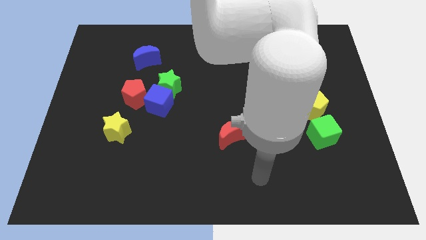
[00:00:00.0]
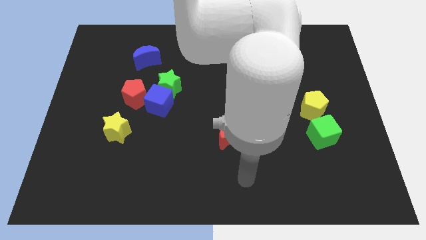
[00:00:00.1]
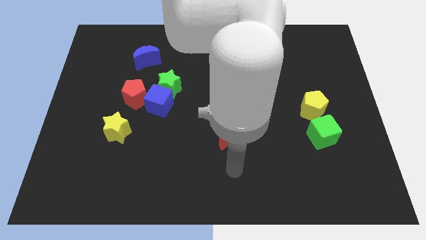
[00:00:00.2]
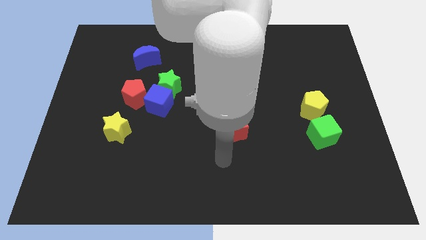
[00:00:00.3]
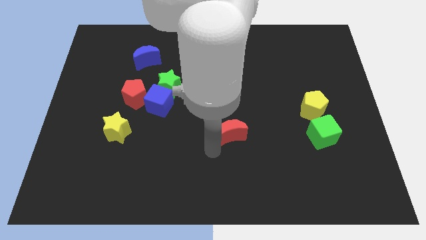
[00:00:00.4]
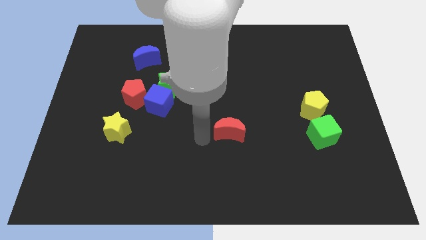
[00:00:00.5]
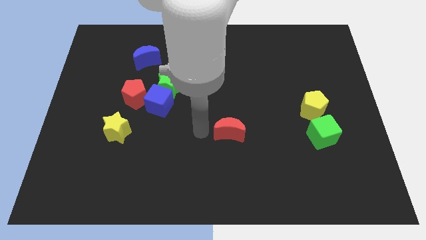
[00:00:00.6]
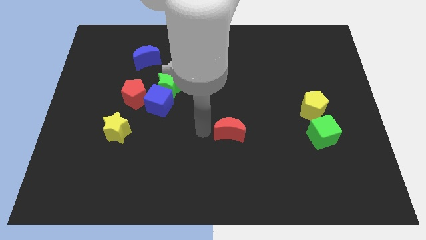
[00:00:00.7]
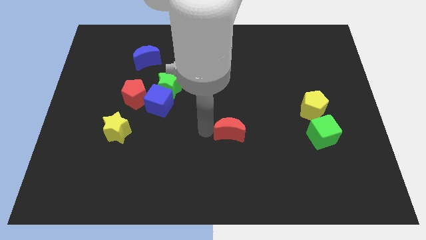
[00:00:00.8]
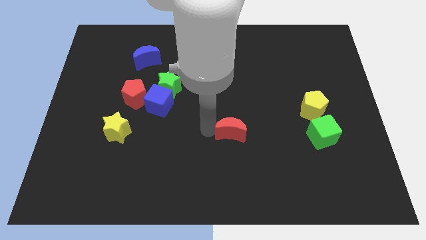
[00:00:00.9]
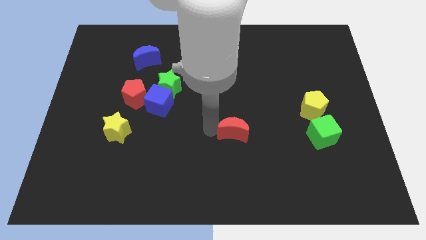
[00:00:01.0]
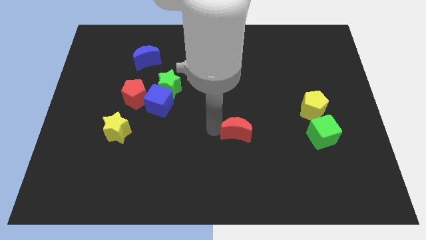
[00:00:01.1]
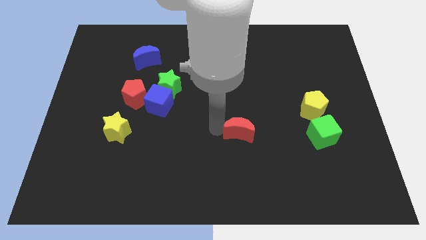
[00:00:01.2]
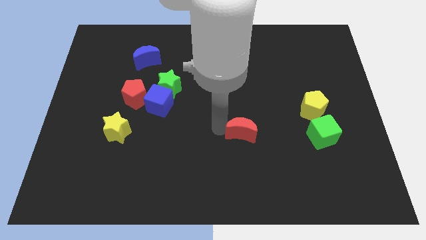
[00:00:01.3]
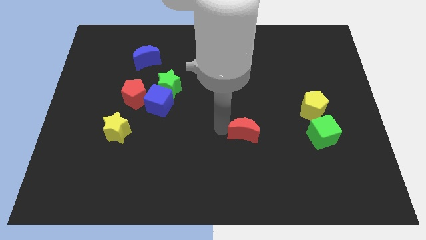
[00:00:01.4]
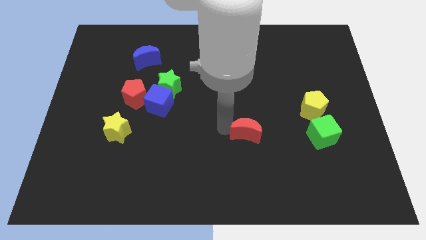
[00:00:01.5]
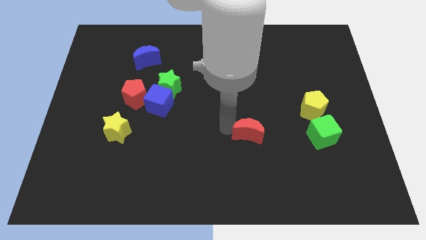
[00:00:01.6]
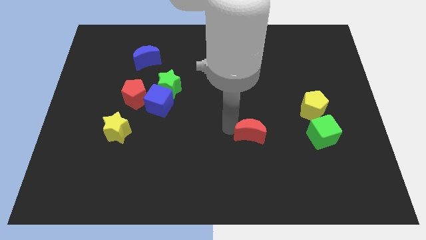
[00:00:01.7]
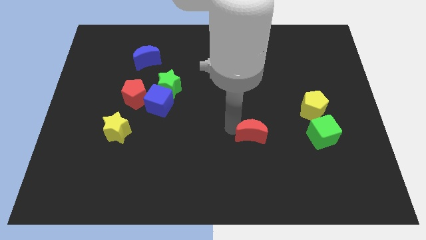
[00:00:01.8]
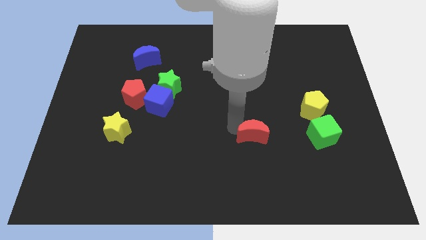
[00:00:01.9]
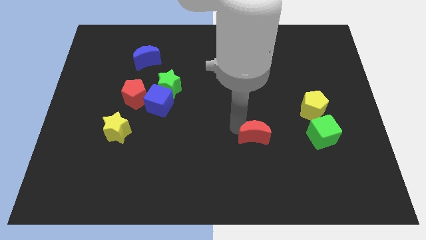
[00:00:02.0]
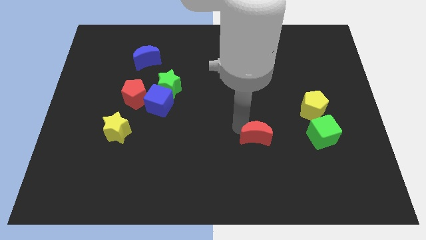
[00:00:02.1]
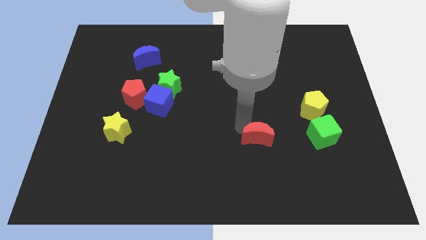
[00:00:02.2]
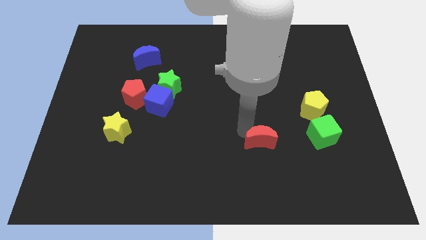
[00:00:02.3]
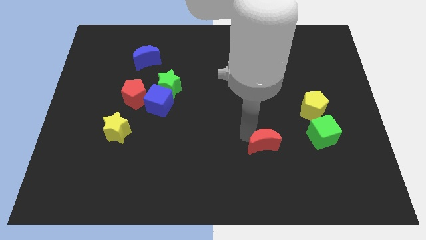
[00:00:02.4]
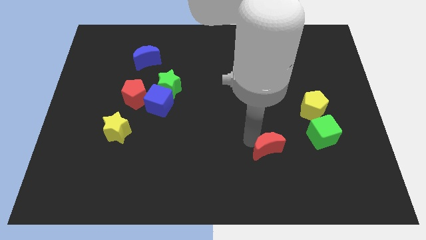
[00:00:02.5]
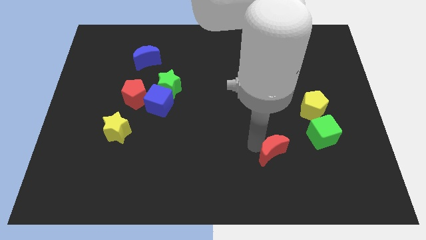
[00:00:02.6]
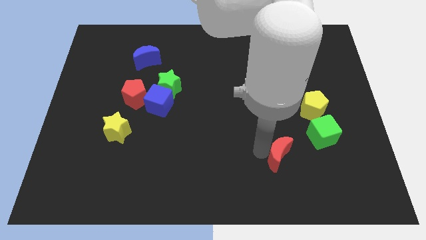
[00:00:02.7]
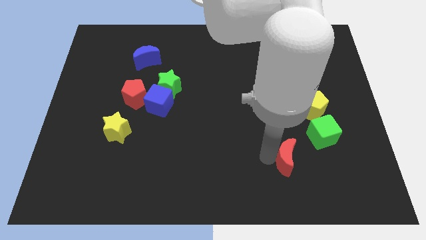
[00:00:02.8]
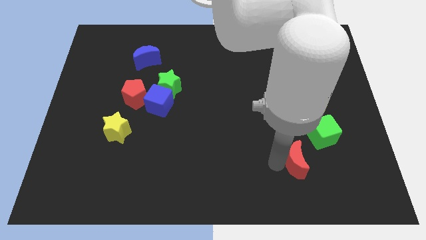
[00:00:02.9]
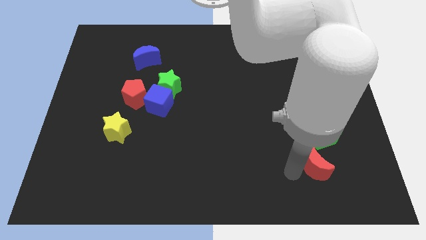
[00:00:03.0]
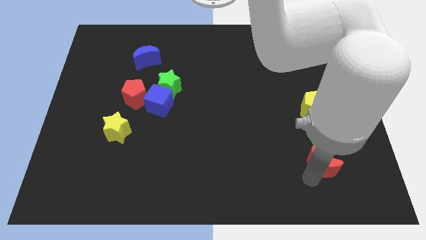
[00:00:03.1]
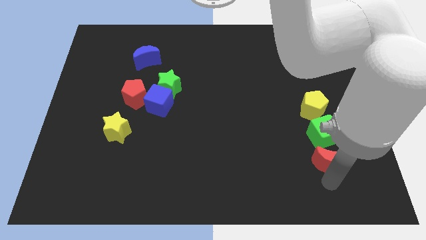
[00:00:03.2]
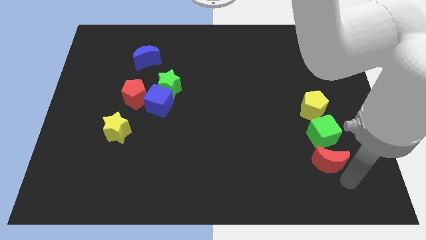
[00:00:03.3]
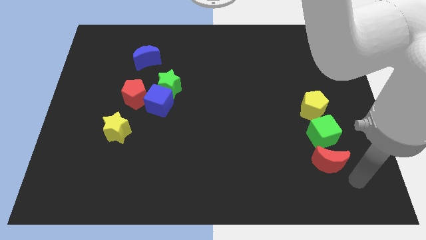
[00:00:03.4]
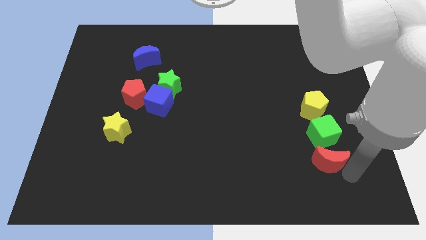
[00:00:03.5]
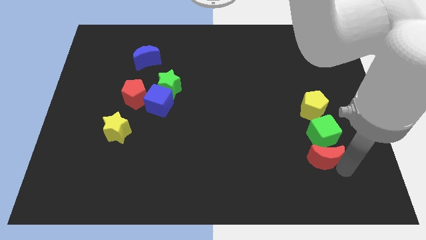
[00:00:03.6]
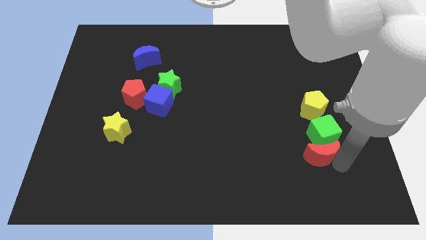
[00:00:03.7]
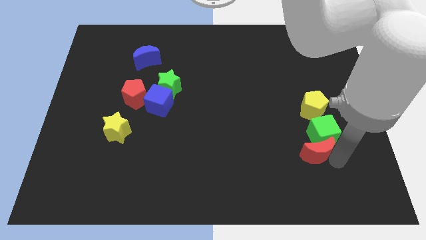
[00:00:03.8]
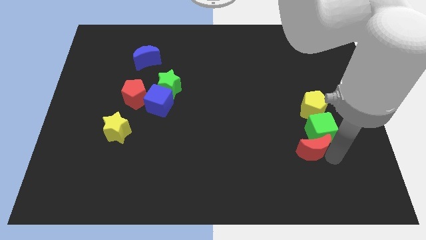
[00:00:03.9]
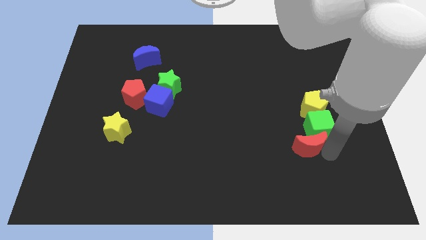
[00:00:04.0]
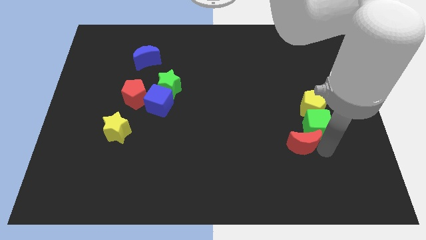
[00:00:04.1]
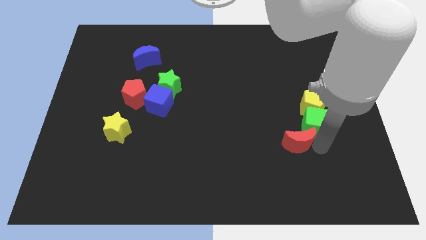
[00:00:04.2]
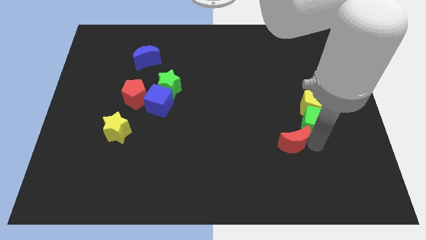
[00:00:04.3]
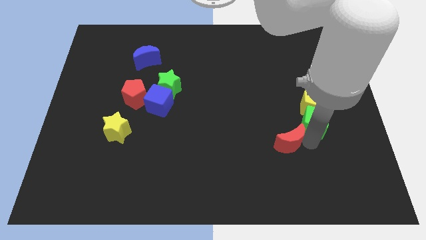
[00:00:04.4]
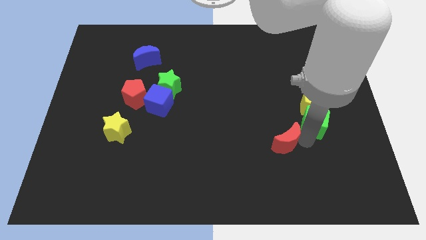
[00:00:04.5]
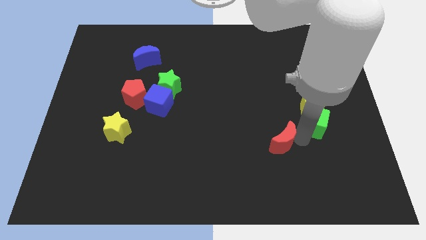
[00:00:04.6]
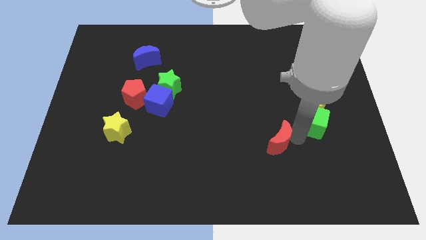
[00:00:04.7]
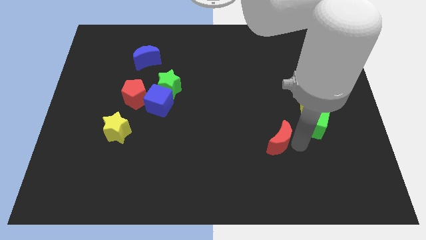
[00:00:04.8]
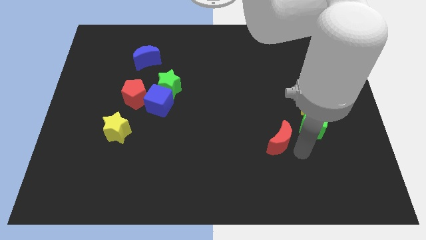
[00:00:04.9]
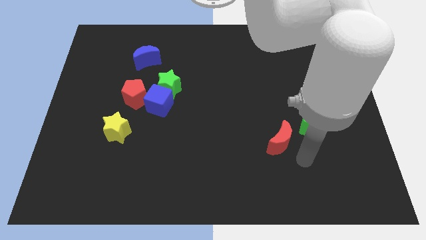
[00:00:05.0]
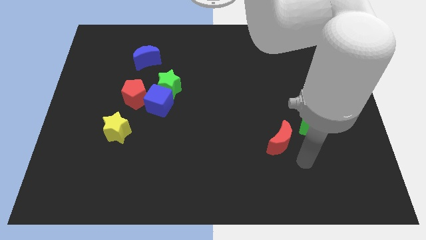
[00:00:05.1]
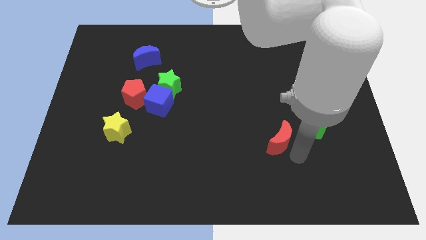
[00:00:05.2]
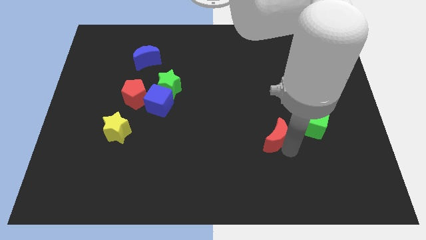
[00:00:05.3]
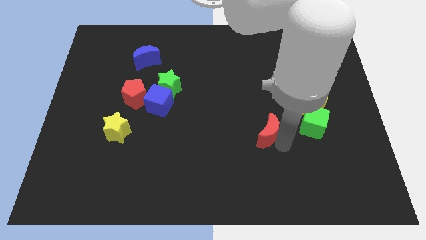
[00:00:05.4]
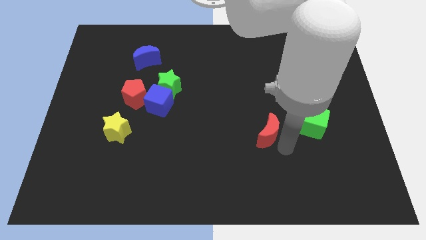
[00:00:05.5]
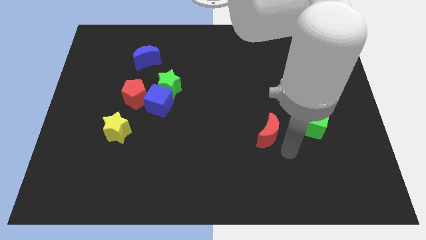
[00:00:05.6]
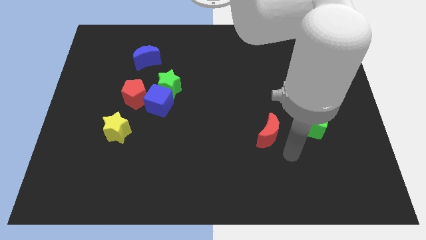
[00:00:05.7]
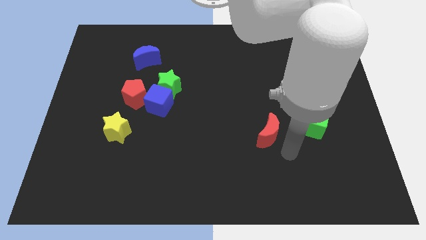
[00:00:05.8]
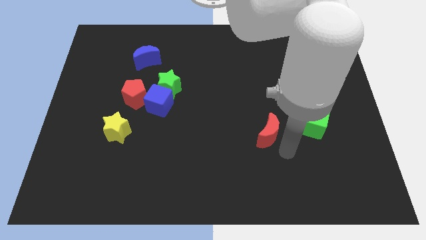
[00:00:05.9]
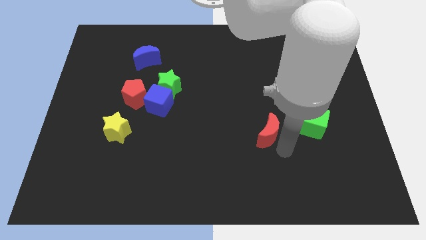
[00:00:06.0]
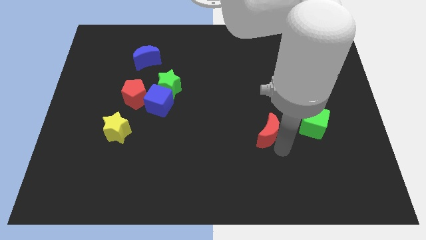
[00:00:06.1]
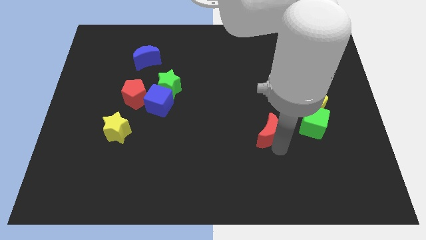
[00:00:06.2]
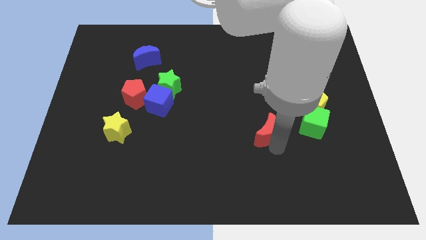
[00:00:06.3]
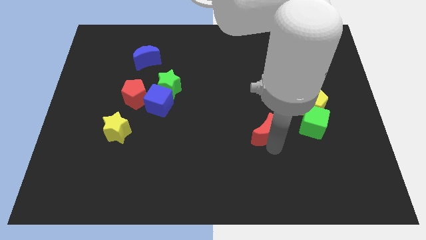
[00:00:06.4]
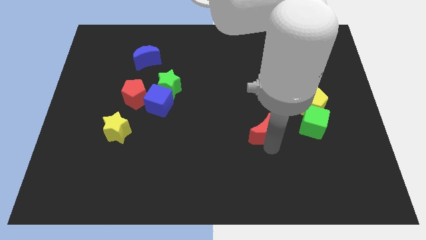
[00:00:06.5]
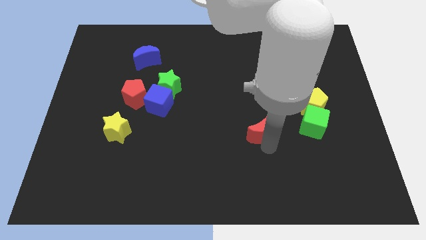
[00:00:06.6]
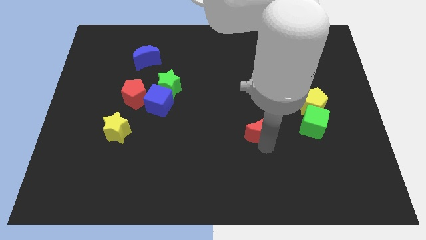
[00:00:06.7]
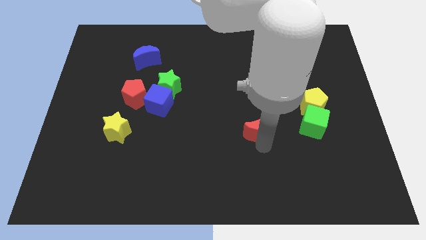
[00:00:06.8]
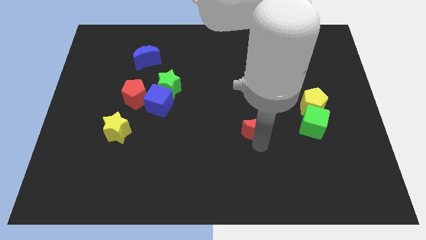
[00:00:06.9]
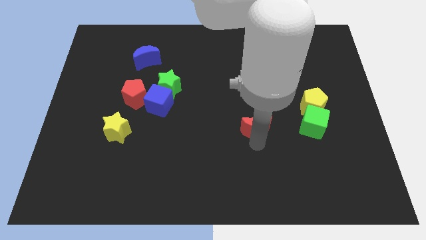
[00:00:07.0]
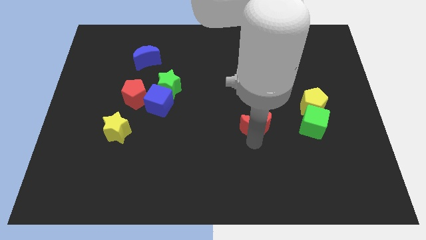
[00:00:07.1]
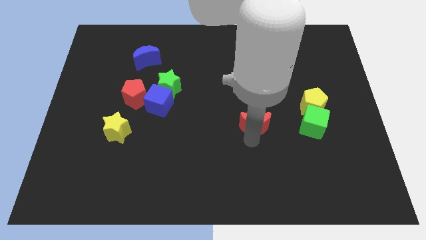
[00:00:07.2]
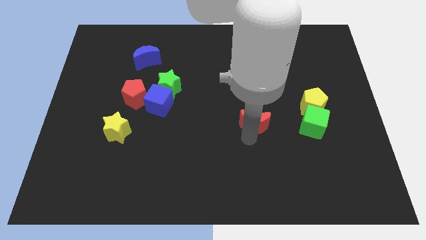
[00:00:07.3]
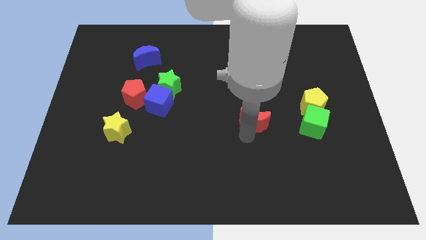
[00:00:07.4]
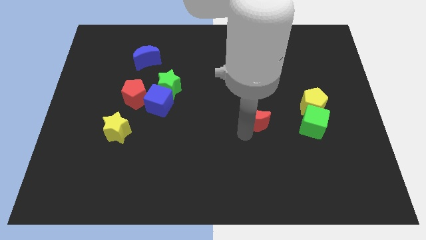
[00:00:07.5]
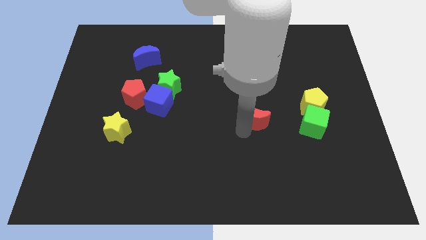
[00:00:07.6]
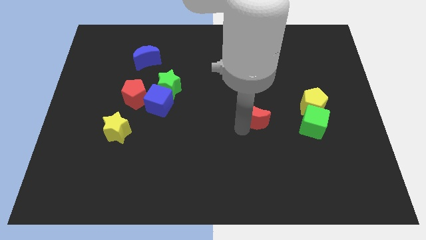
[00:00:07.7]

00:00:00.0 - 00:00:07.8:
move the red moon upwards and right diagonally a little
